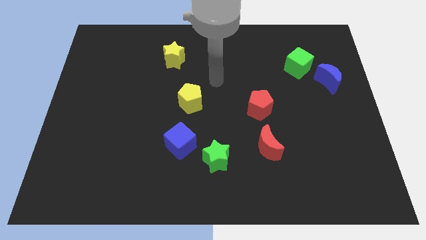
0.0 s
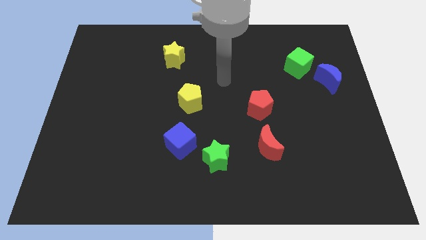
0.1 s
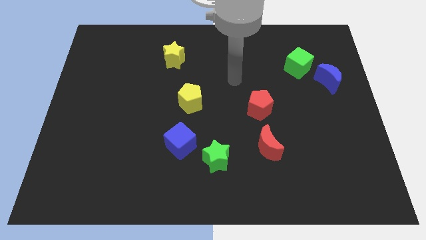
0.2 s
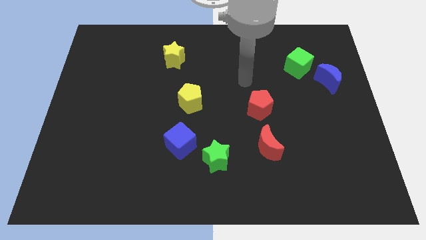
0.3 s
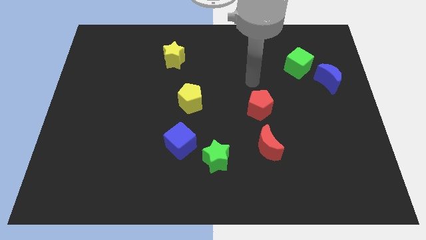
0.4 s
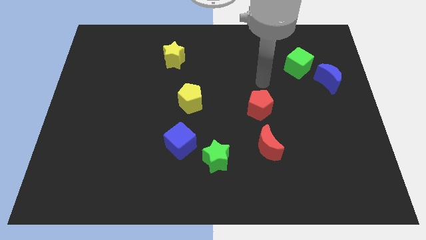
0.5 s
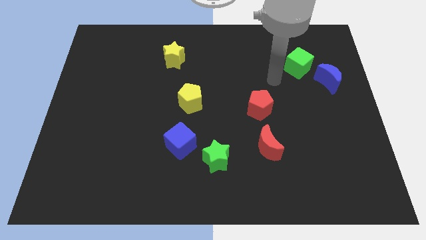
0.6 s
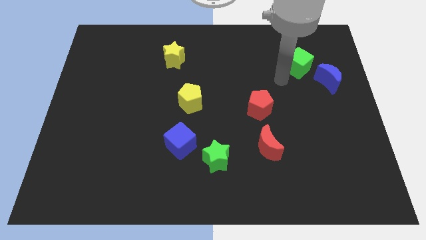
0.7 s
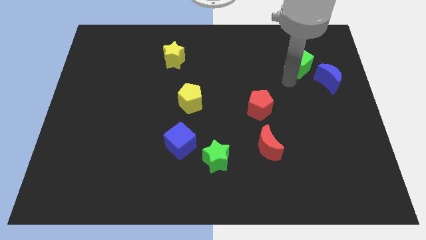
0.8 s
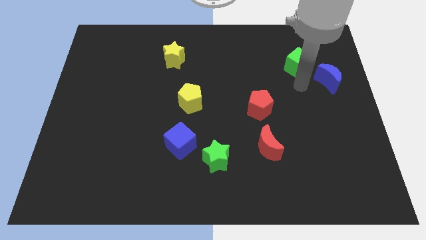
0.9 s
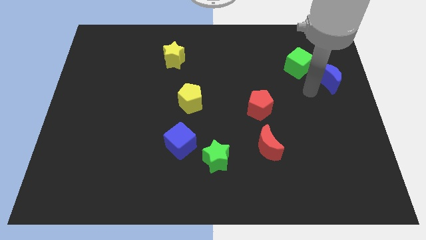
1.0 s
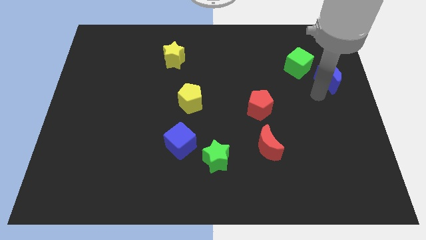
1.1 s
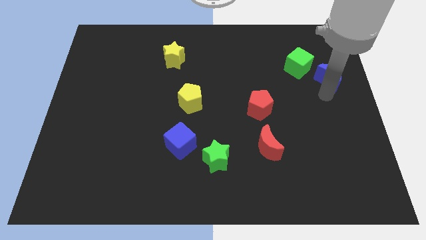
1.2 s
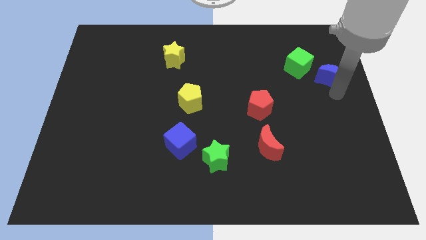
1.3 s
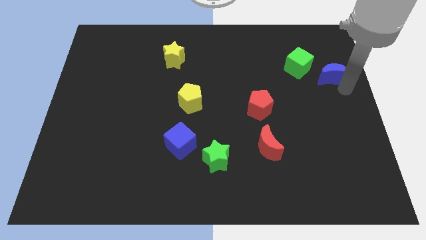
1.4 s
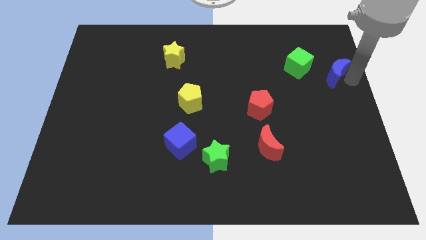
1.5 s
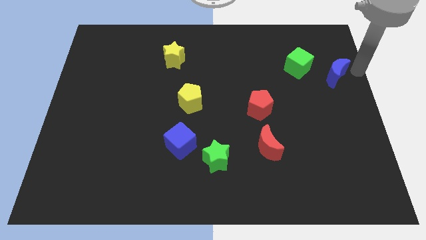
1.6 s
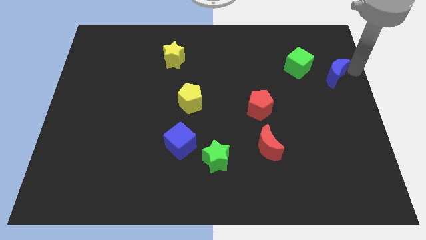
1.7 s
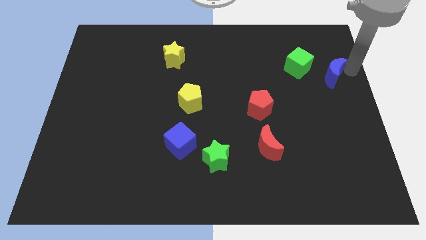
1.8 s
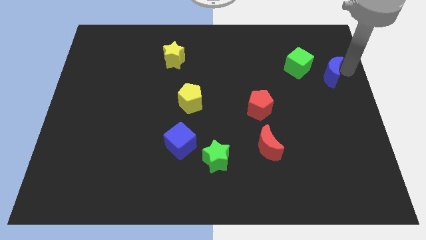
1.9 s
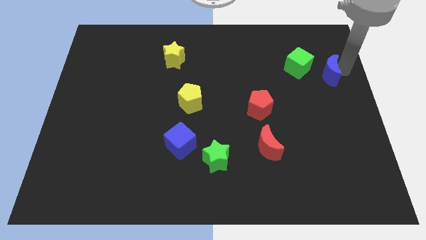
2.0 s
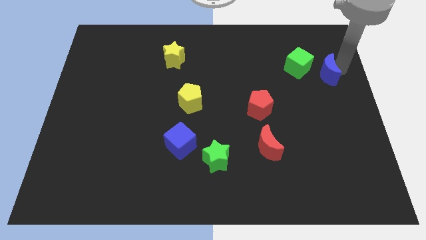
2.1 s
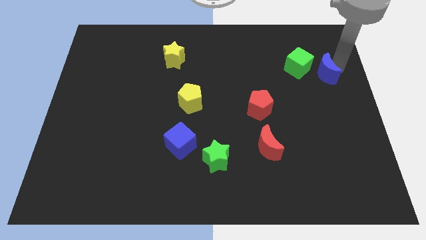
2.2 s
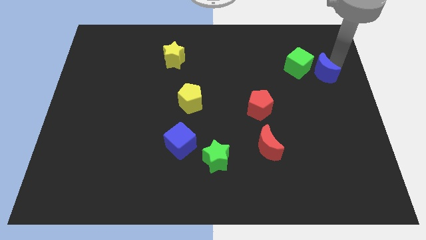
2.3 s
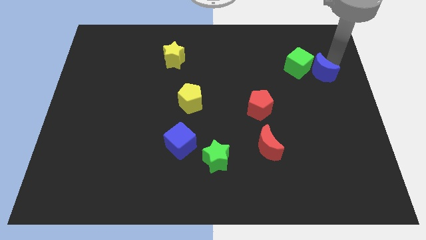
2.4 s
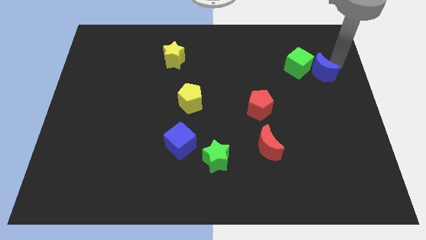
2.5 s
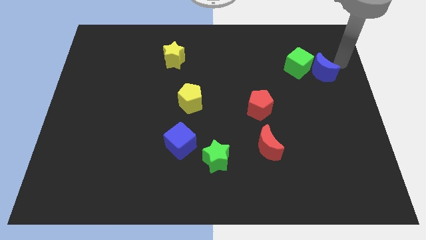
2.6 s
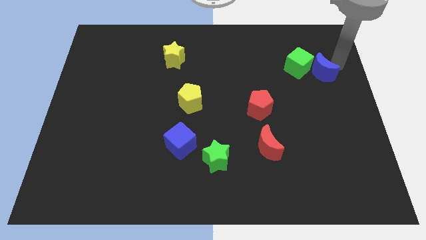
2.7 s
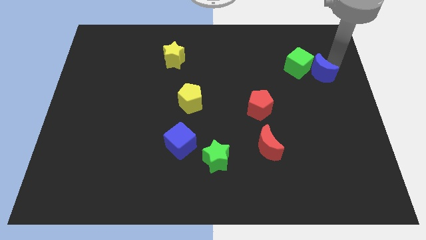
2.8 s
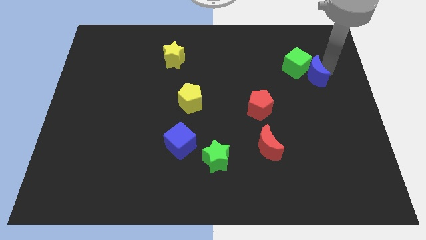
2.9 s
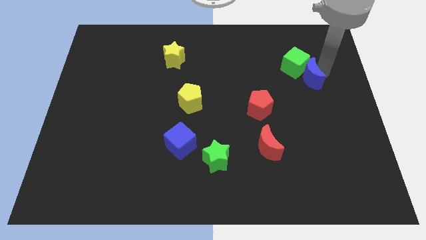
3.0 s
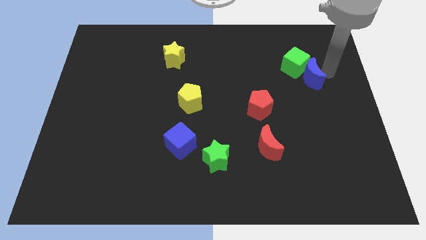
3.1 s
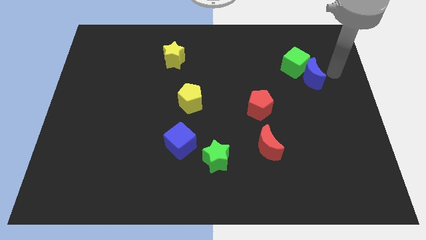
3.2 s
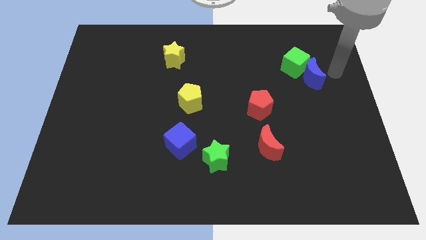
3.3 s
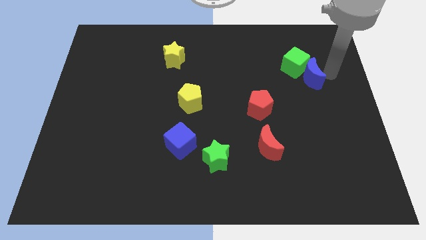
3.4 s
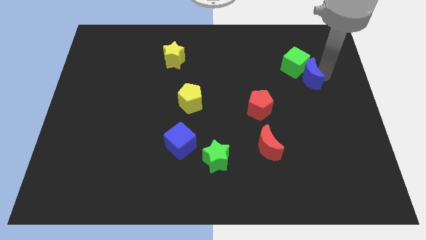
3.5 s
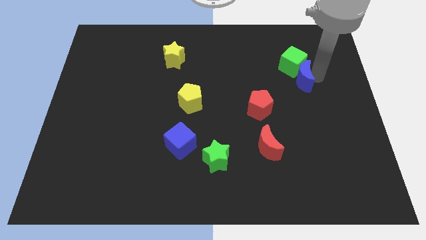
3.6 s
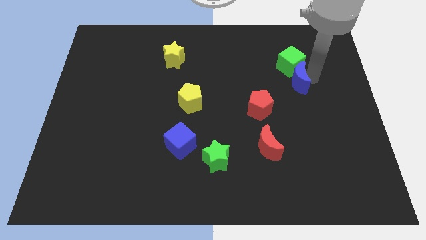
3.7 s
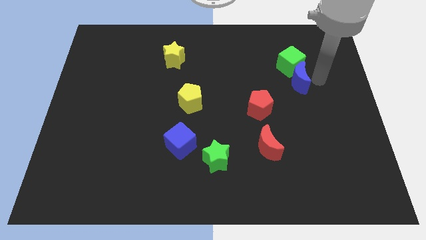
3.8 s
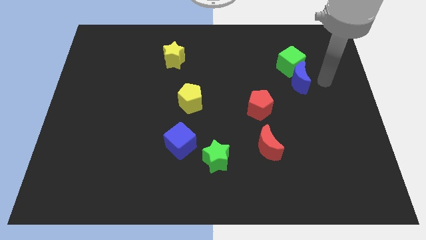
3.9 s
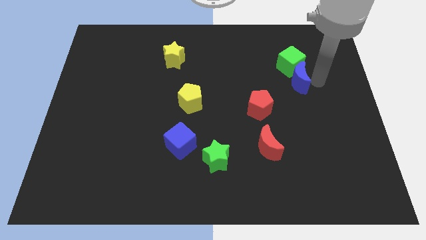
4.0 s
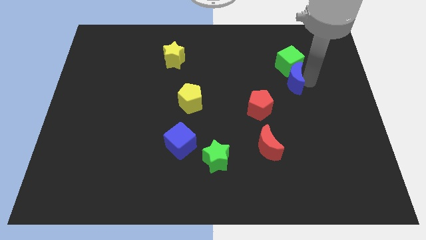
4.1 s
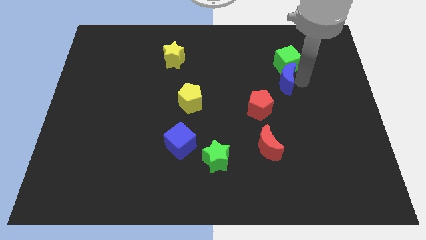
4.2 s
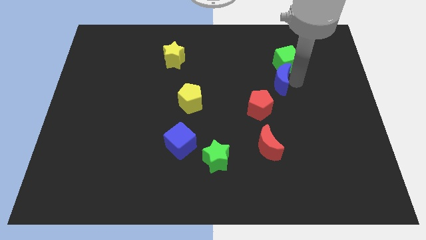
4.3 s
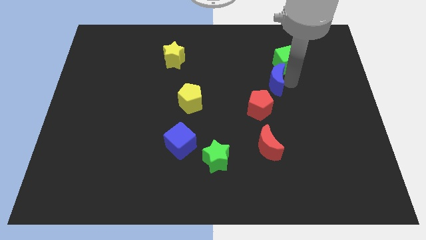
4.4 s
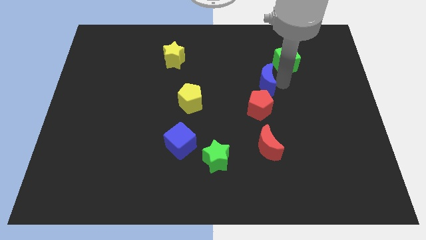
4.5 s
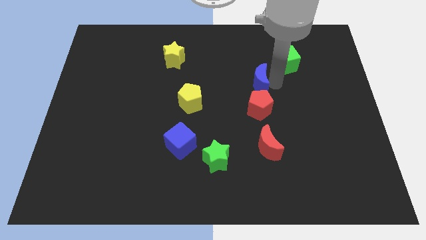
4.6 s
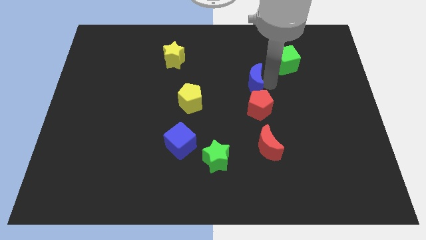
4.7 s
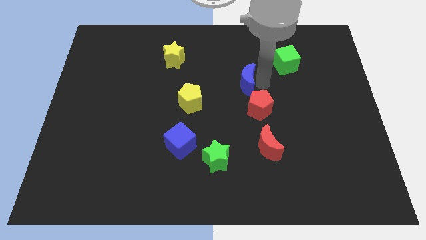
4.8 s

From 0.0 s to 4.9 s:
slide the blue moon to the left

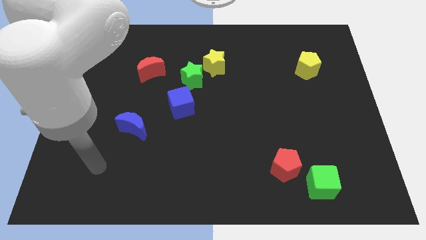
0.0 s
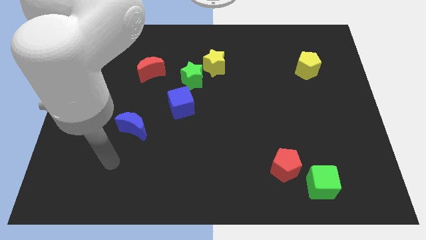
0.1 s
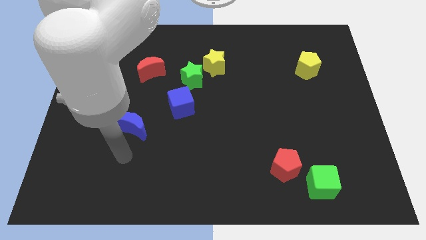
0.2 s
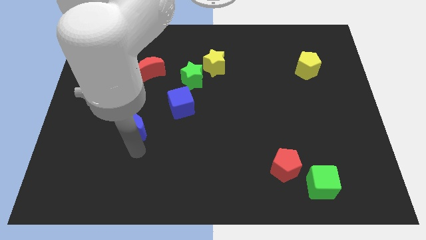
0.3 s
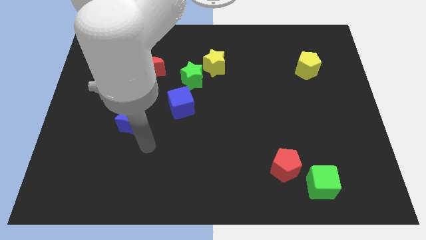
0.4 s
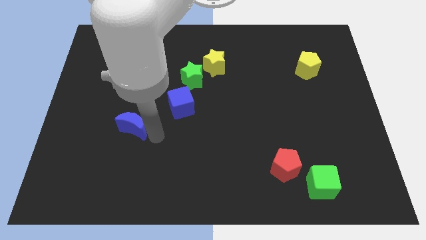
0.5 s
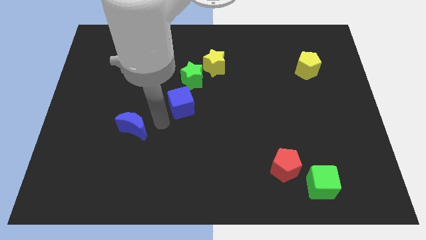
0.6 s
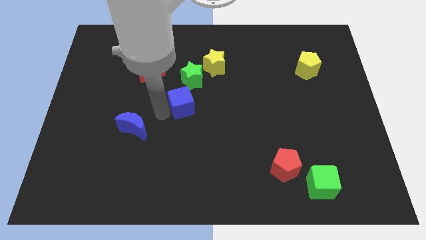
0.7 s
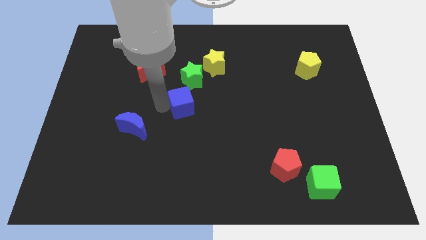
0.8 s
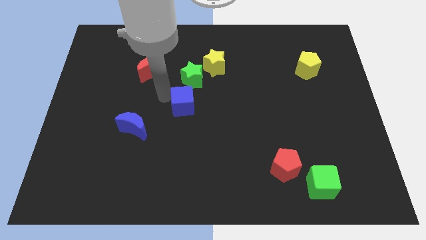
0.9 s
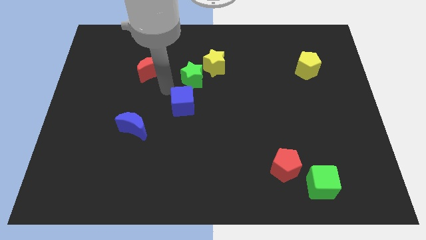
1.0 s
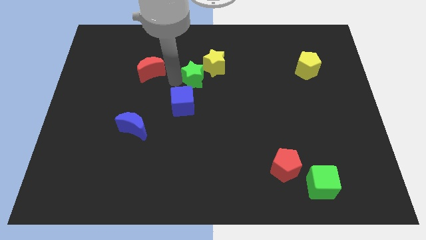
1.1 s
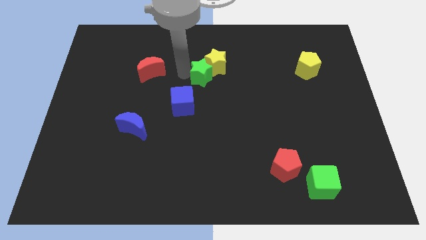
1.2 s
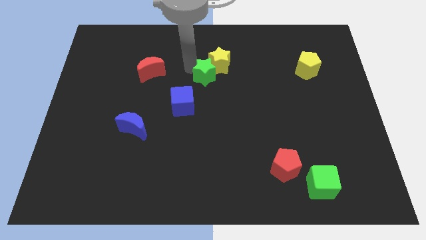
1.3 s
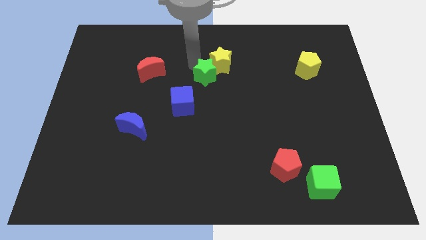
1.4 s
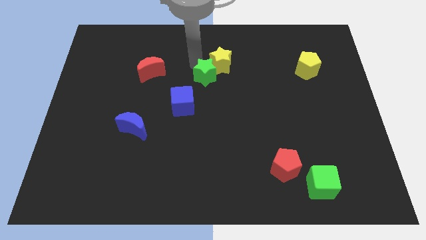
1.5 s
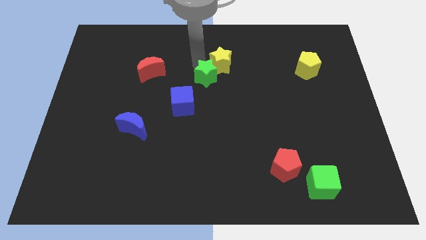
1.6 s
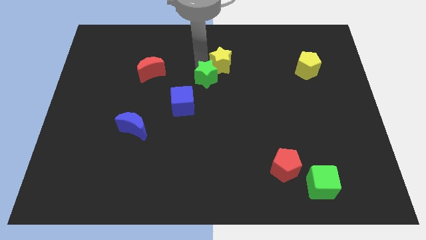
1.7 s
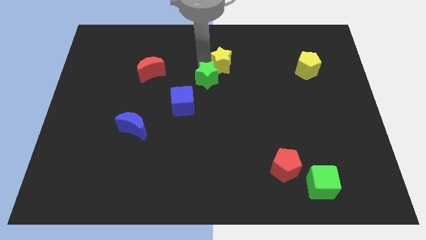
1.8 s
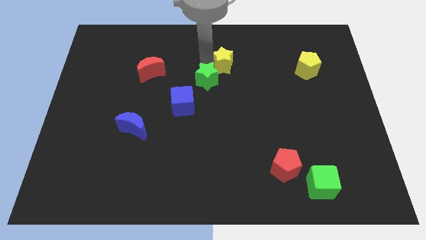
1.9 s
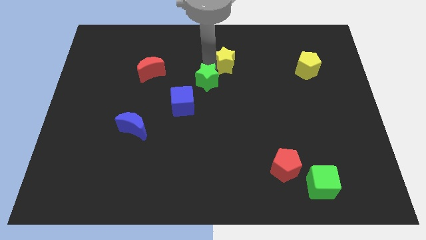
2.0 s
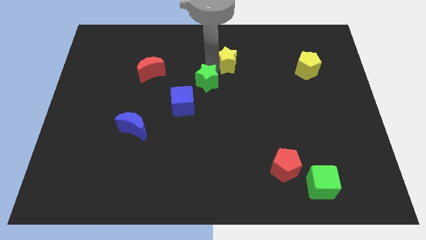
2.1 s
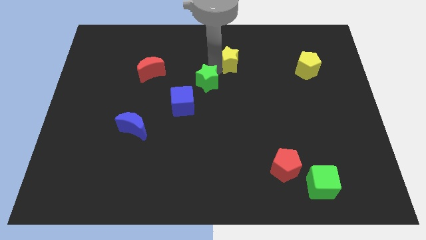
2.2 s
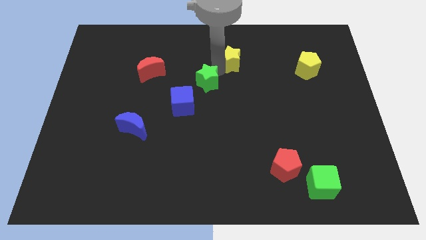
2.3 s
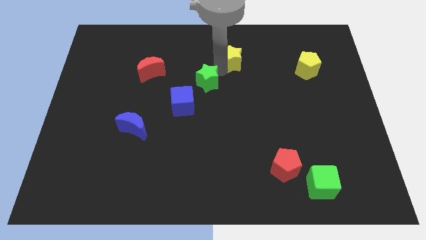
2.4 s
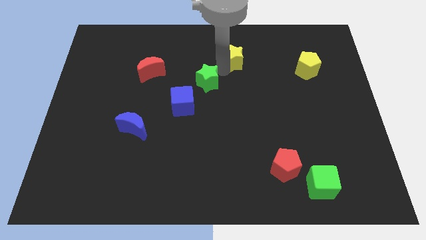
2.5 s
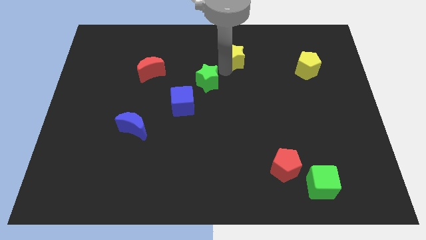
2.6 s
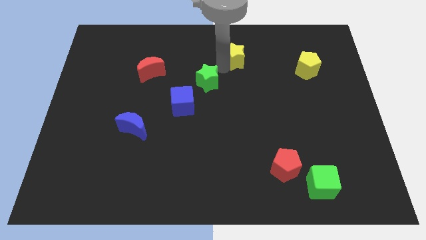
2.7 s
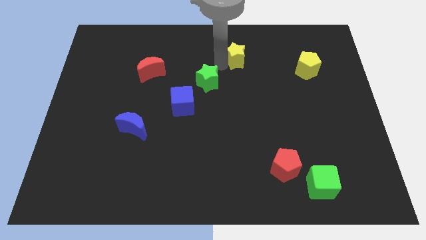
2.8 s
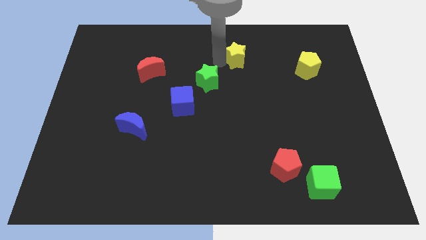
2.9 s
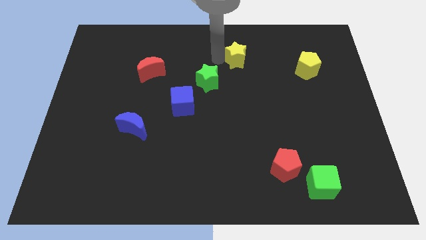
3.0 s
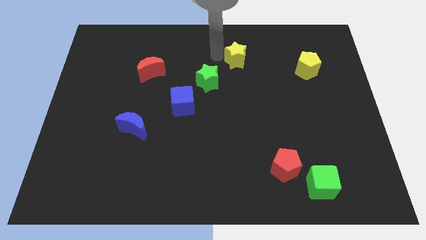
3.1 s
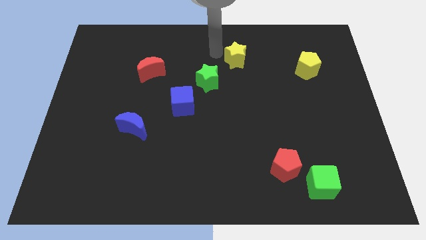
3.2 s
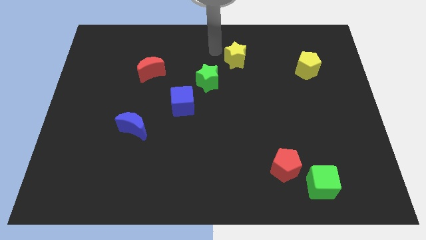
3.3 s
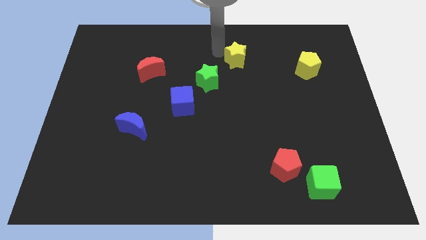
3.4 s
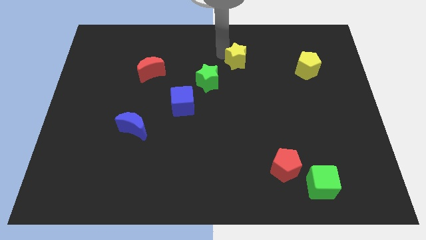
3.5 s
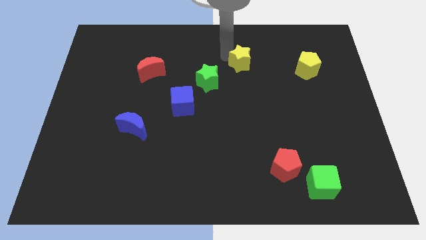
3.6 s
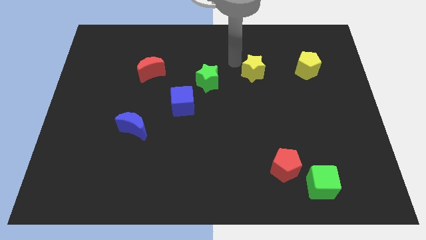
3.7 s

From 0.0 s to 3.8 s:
slightly slide the yellow star right
